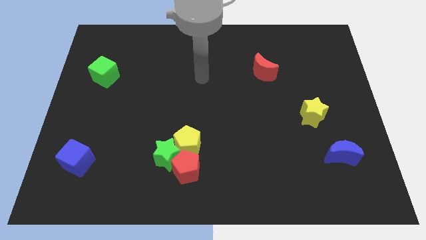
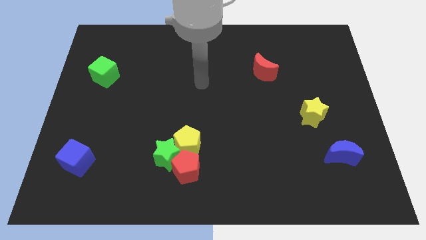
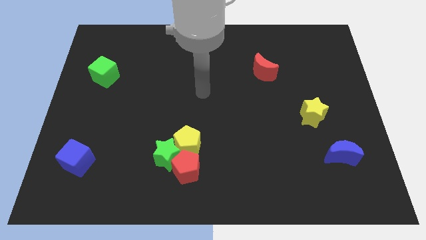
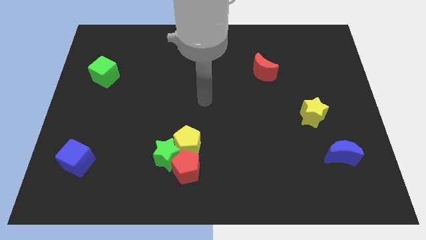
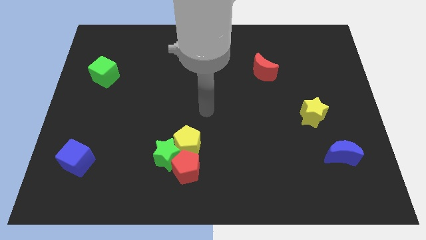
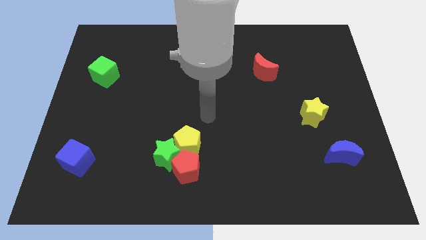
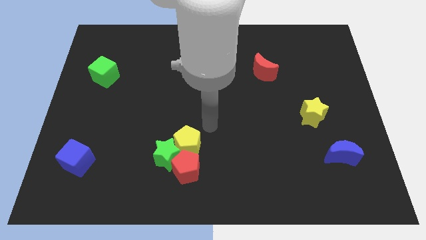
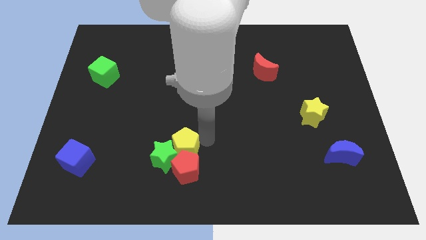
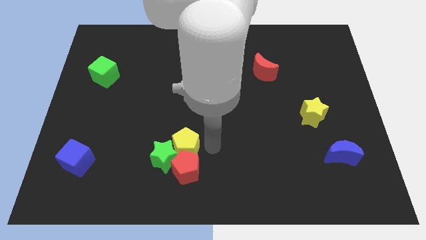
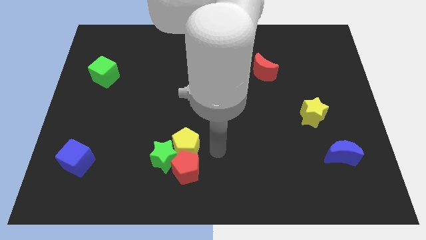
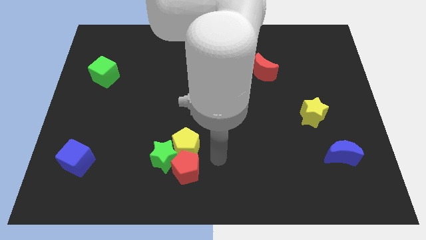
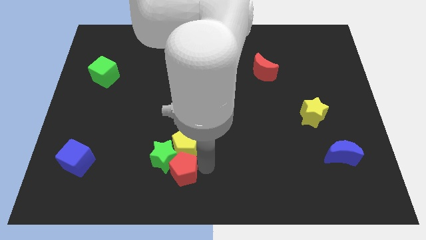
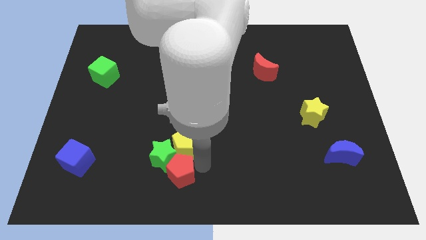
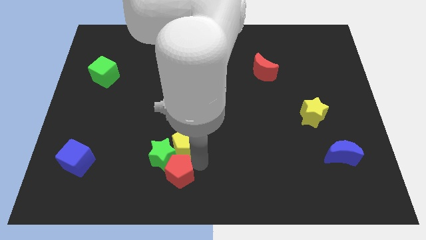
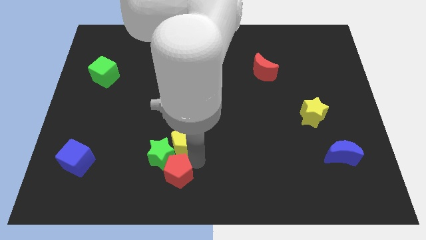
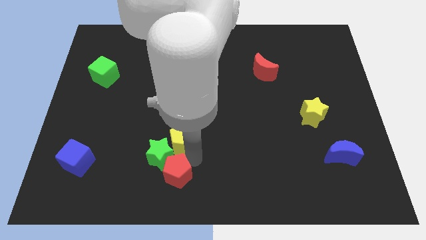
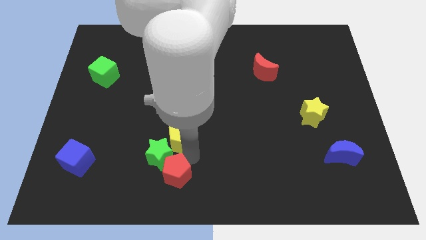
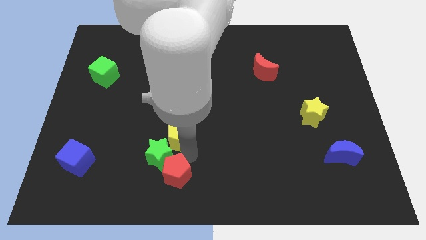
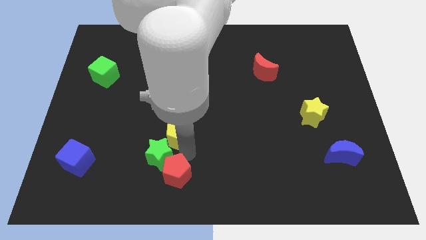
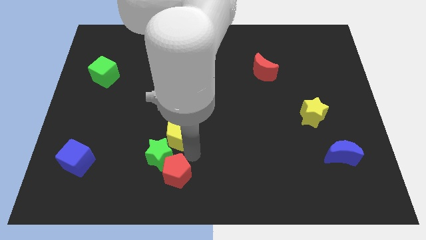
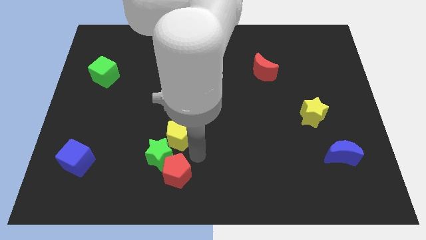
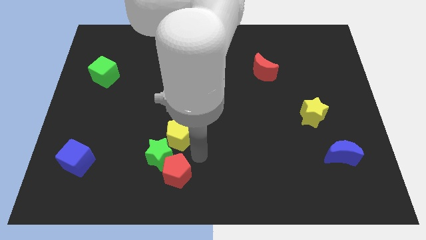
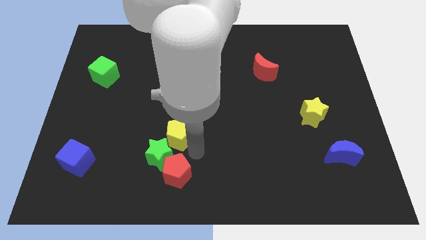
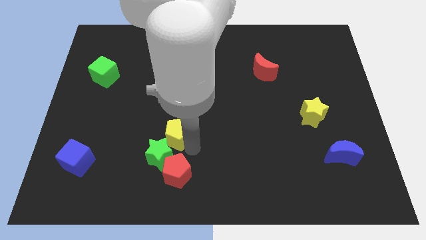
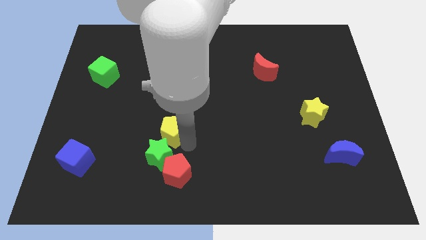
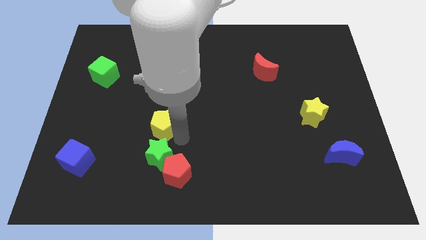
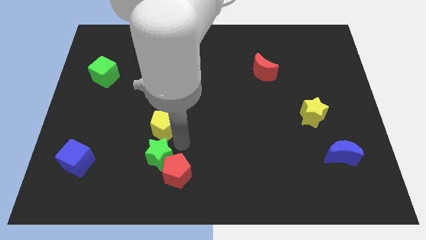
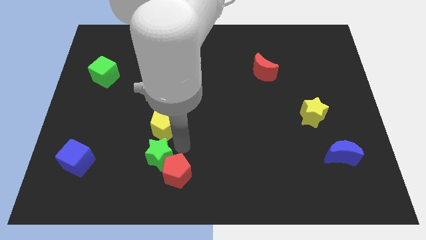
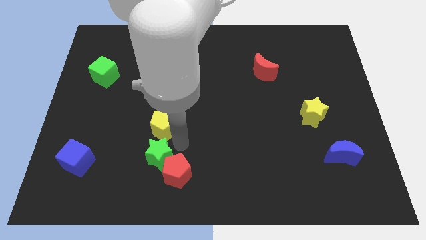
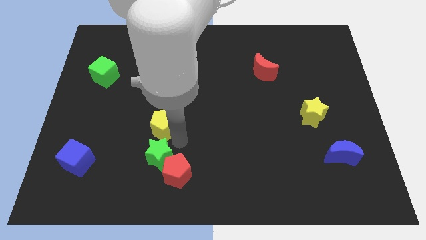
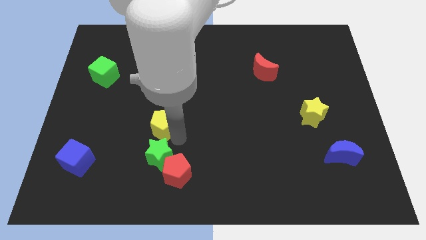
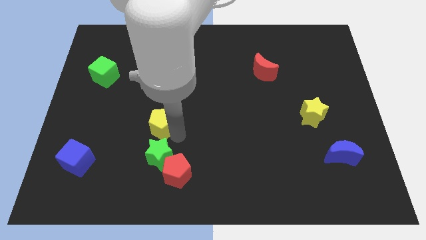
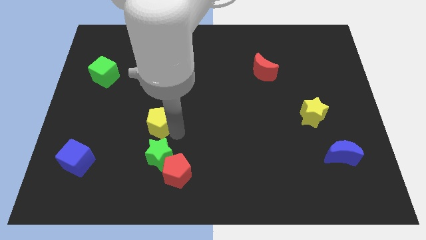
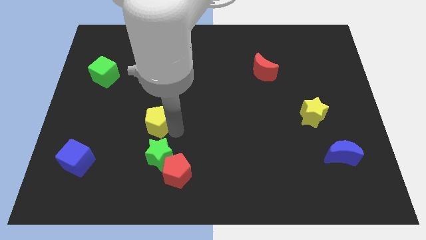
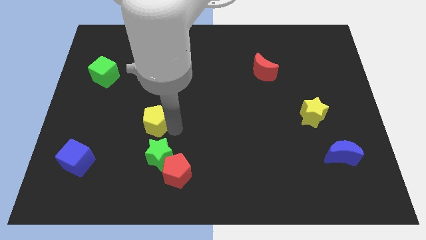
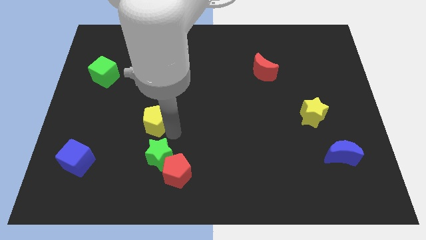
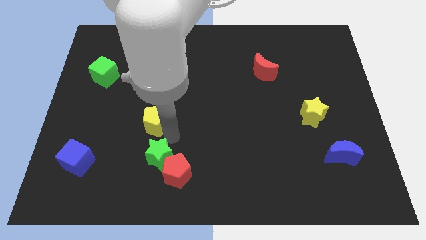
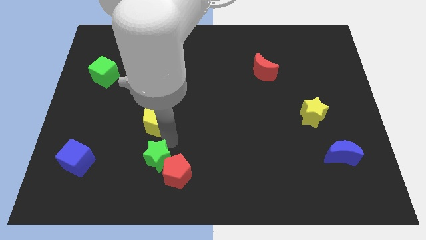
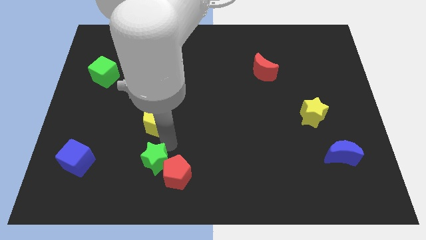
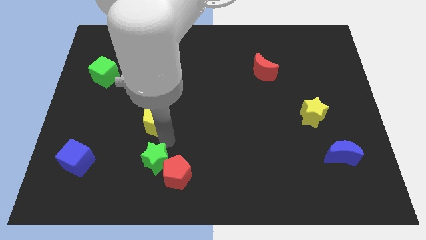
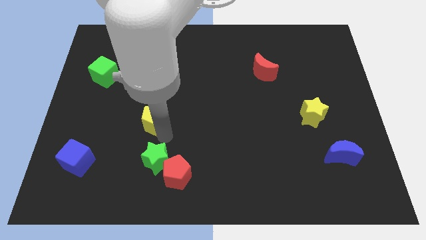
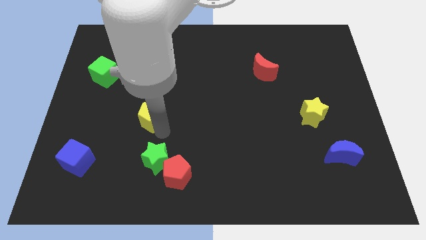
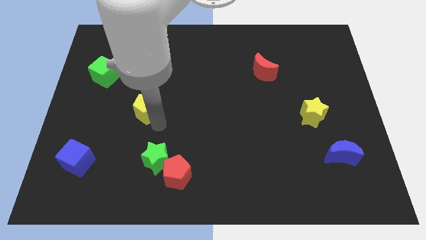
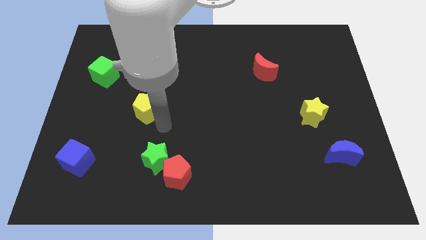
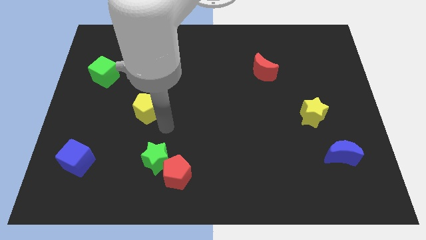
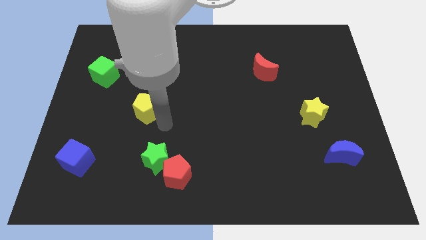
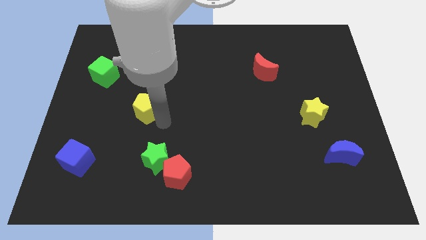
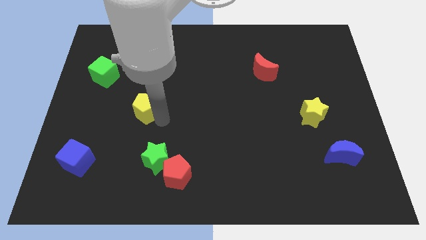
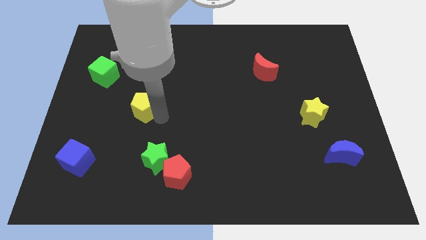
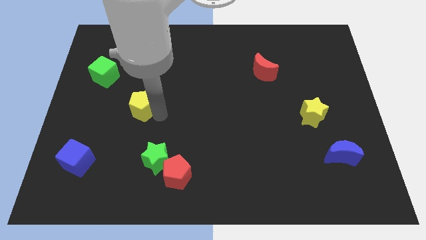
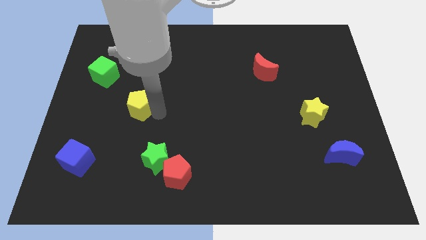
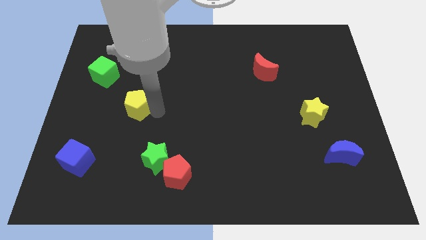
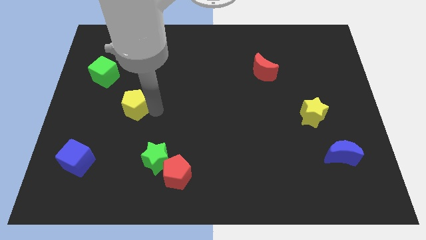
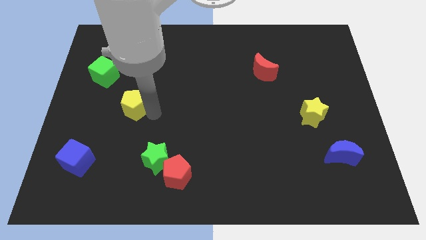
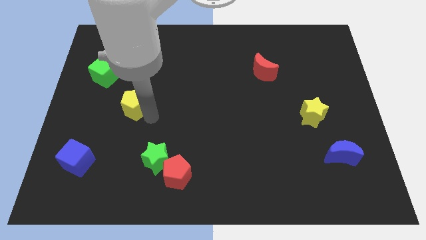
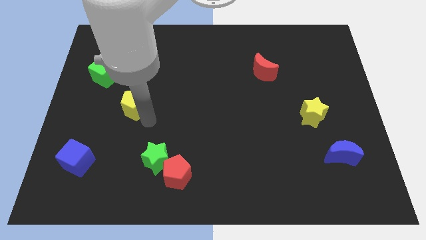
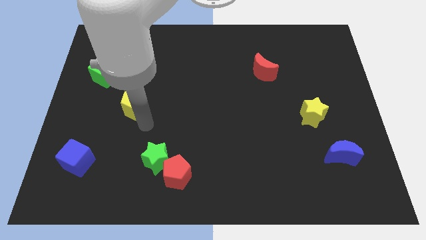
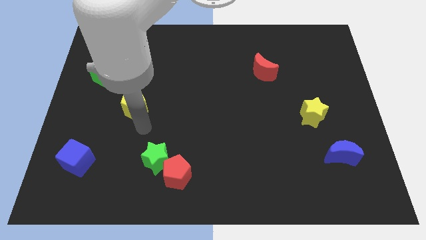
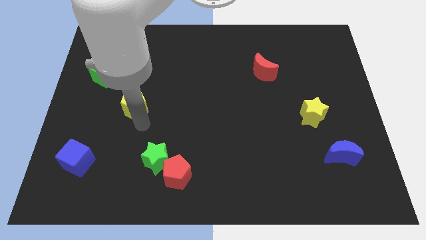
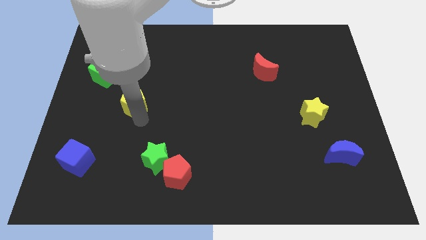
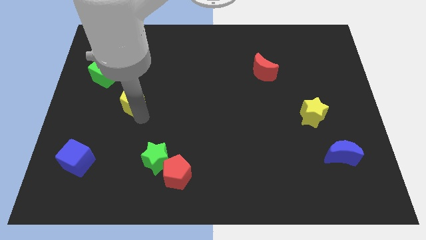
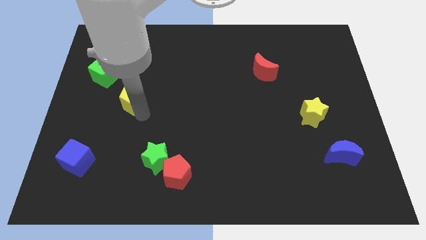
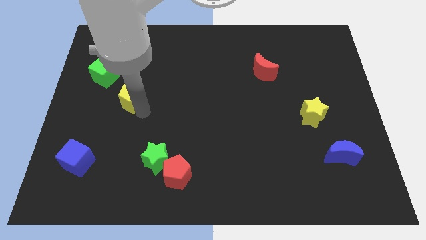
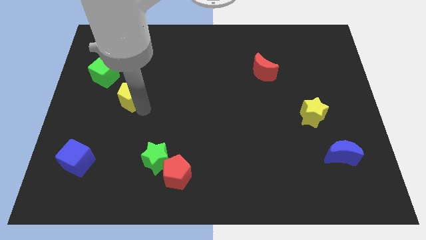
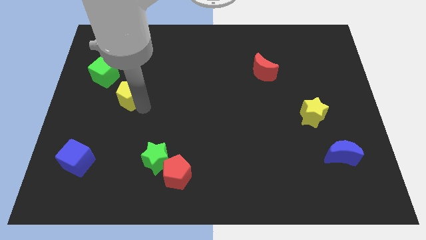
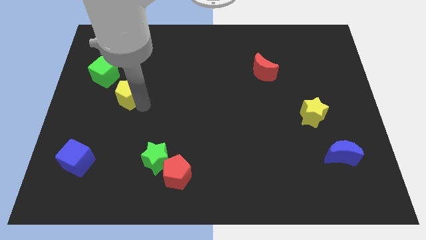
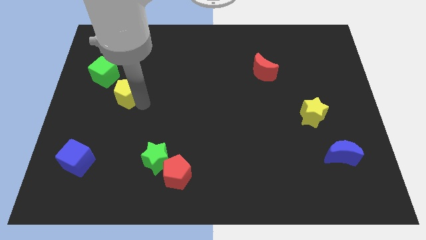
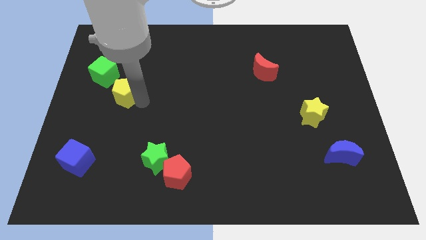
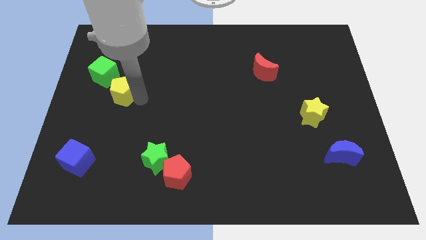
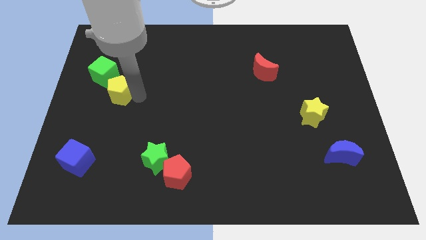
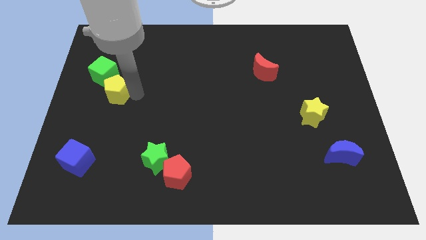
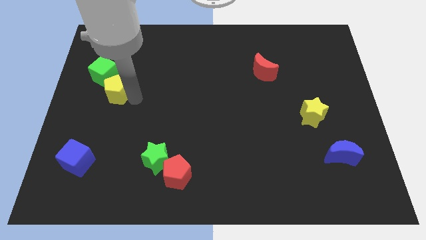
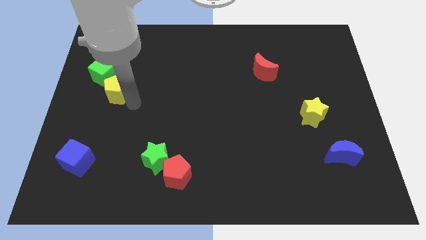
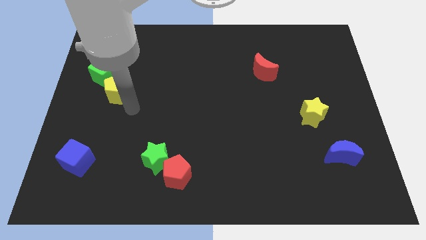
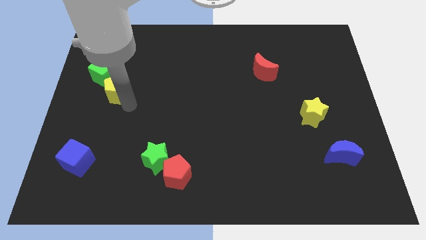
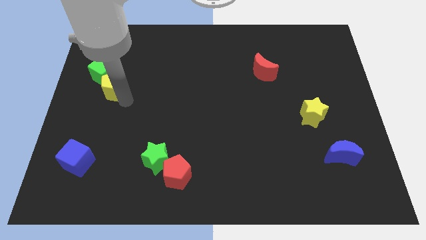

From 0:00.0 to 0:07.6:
put the yellow pentagon next to the green cube
